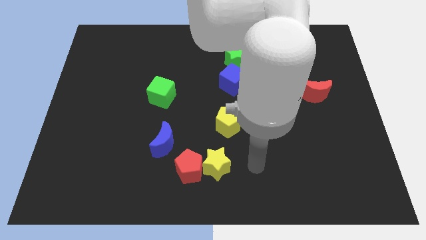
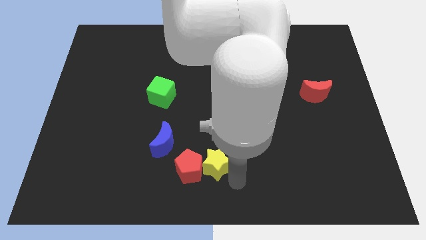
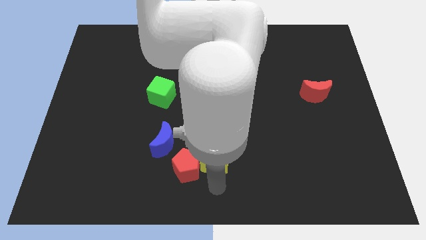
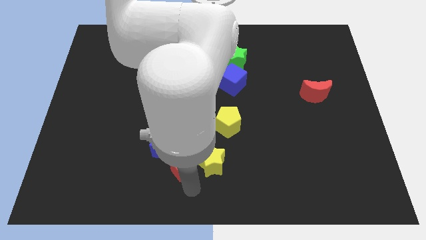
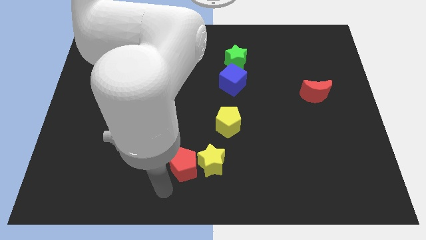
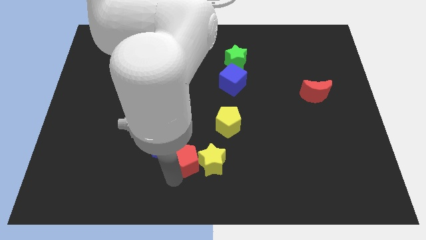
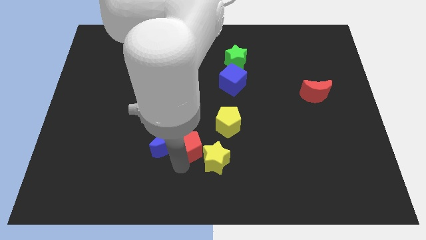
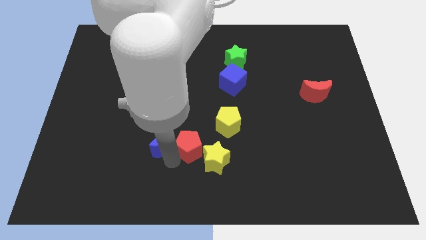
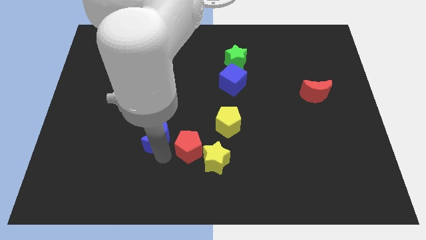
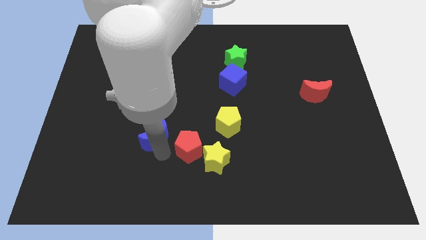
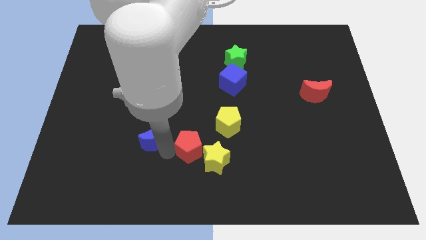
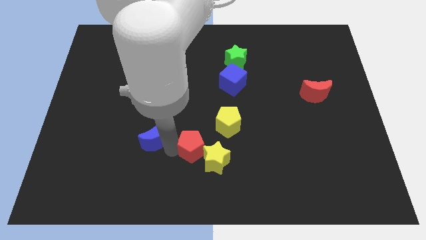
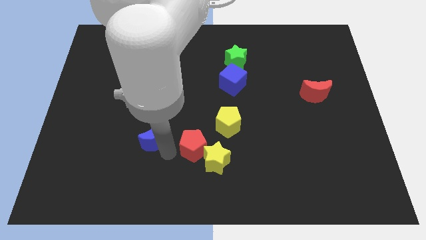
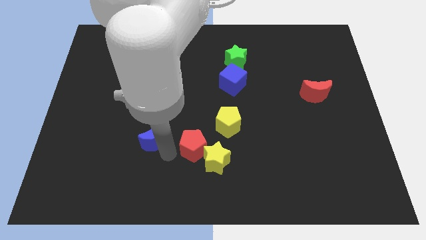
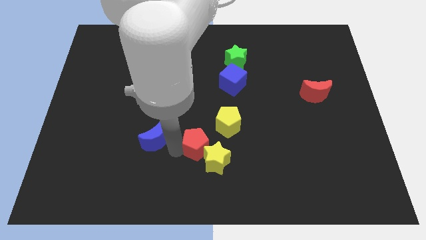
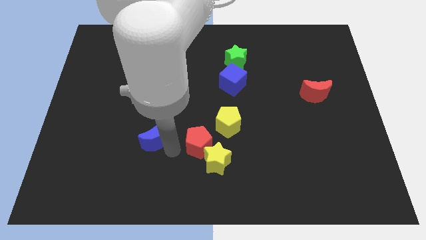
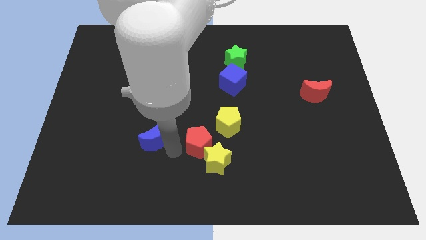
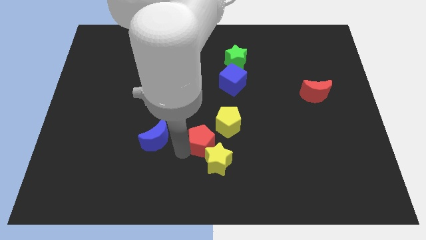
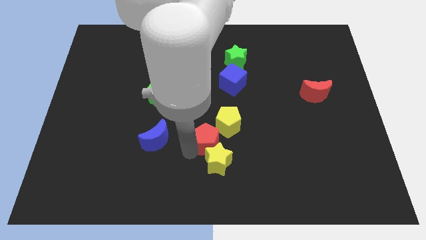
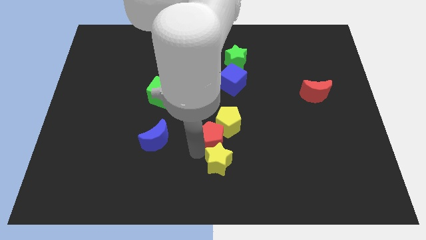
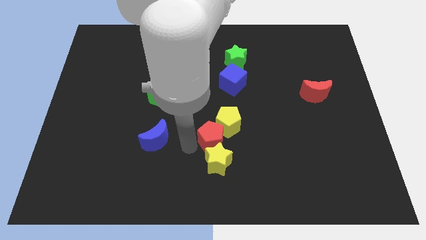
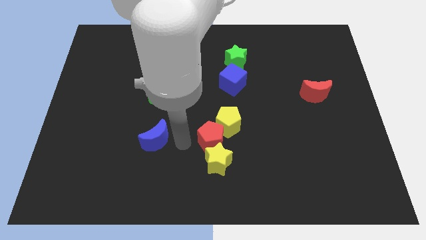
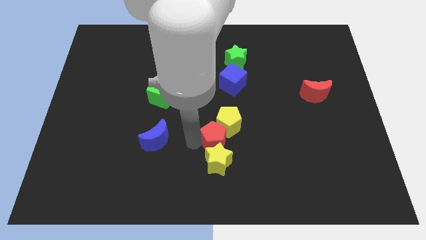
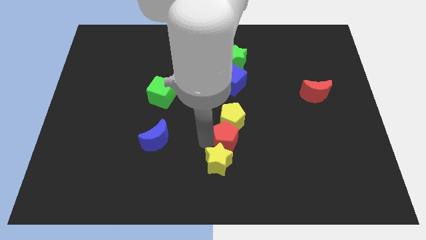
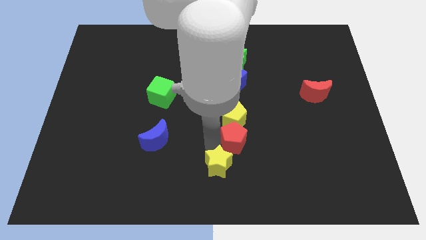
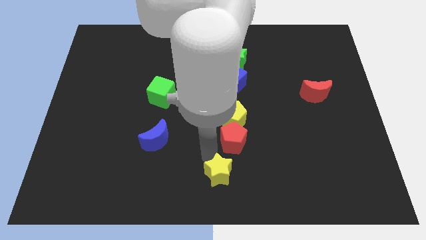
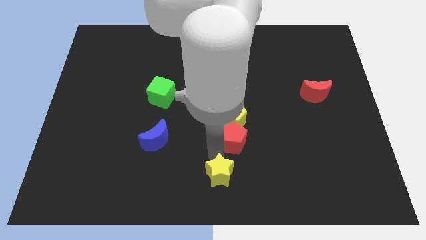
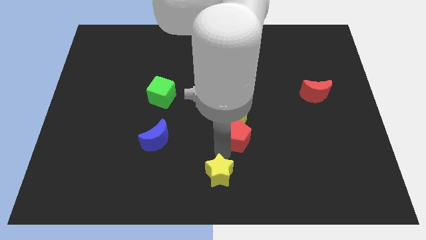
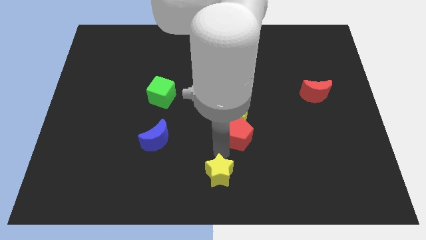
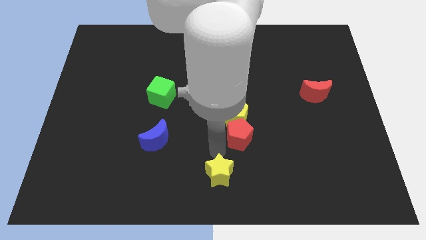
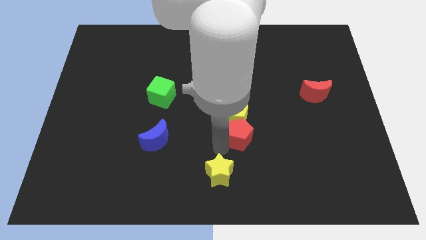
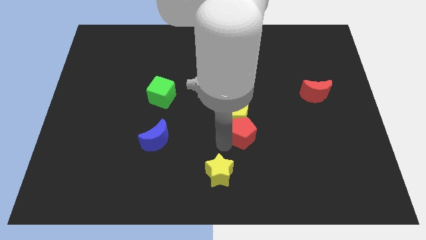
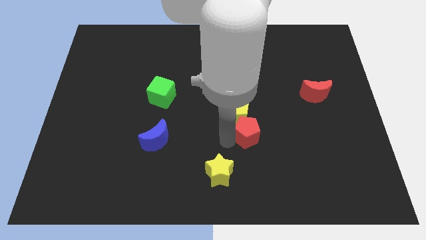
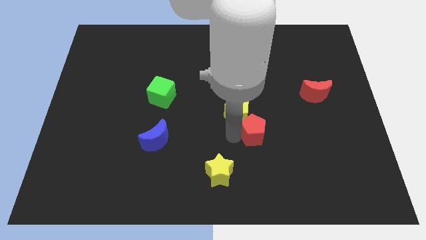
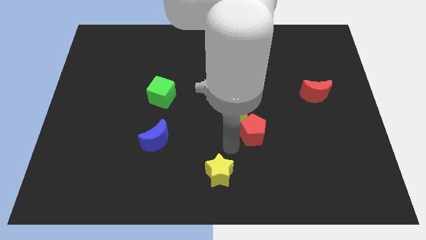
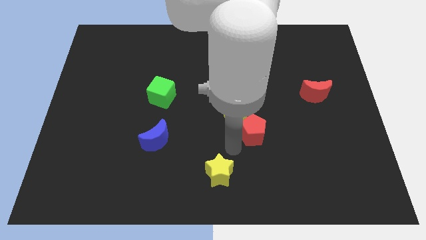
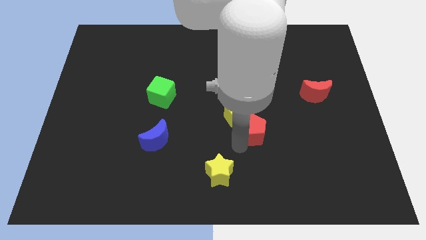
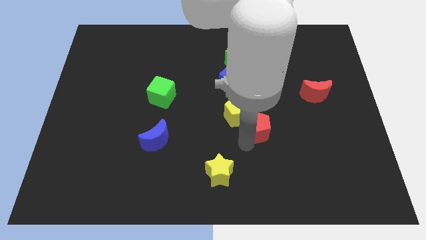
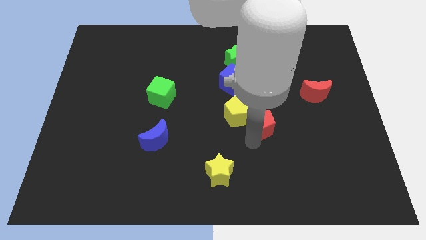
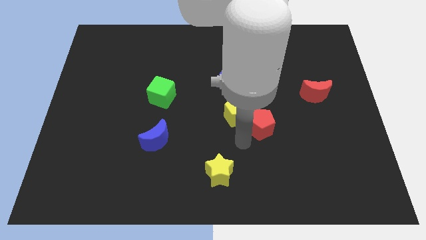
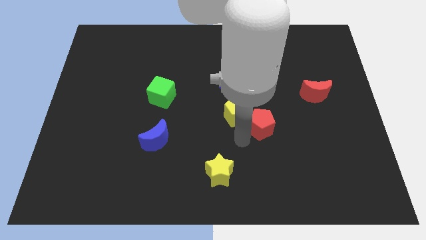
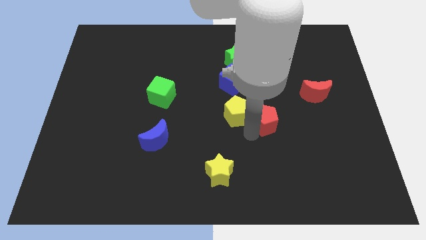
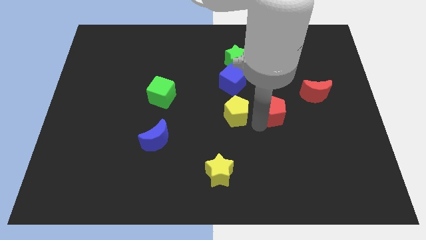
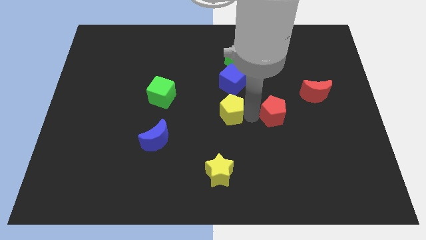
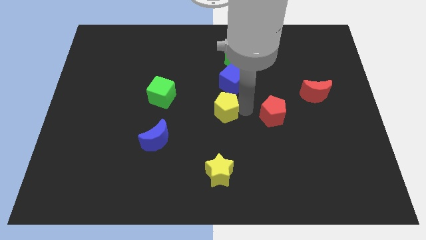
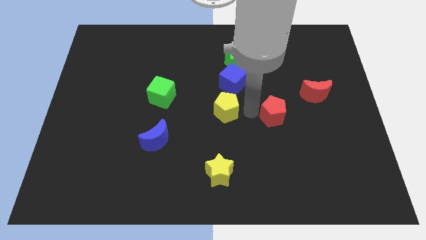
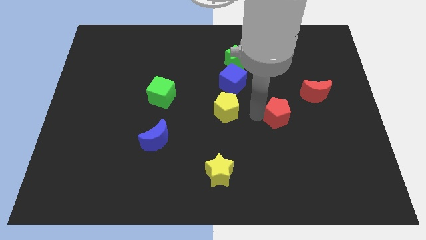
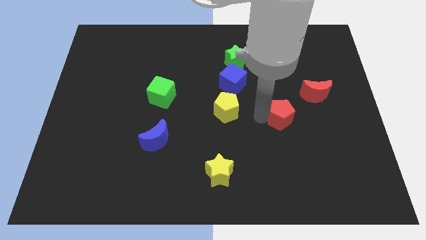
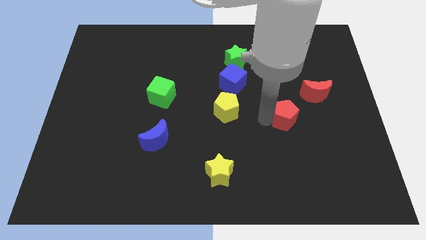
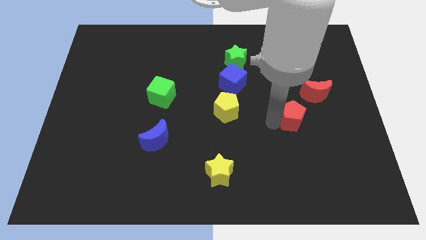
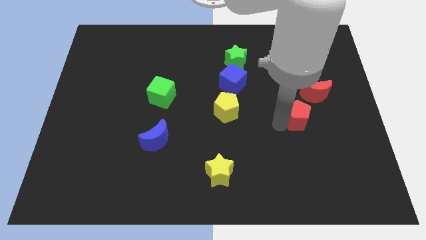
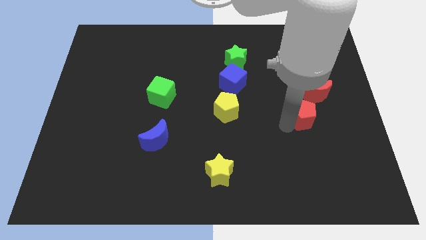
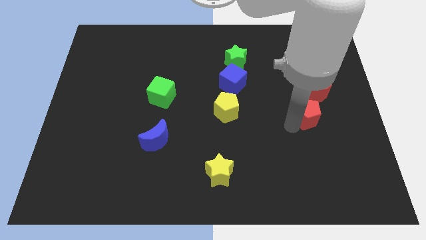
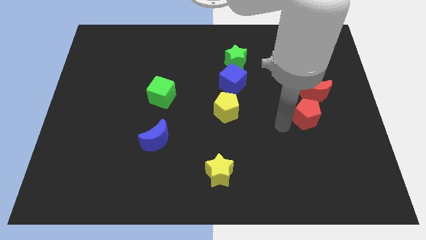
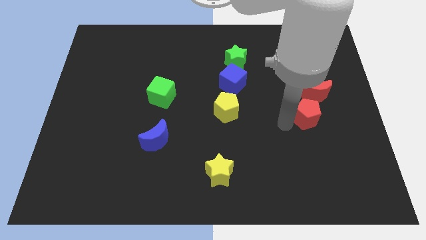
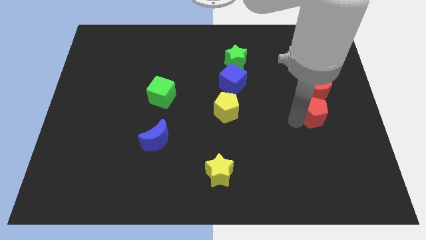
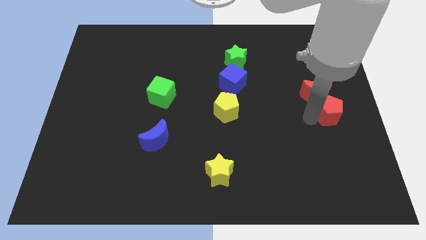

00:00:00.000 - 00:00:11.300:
slide the red pentagon to the center right

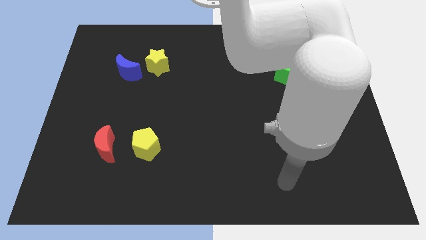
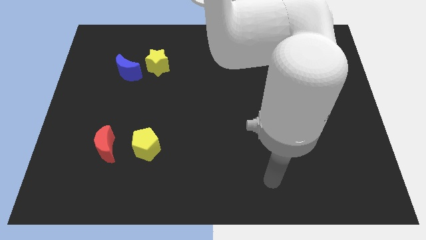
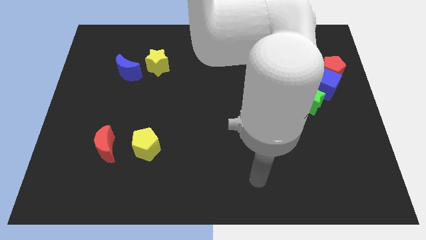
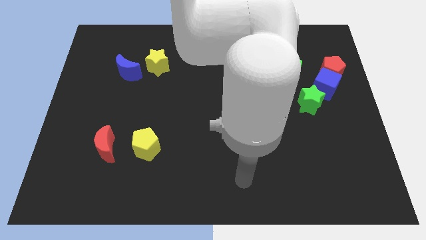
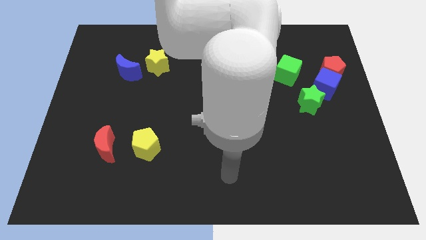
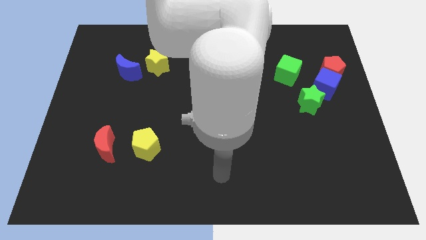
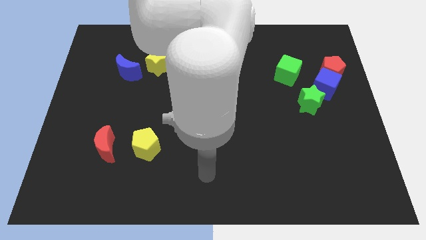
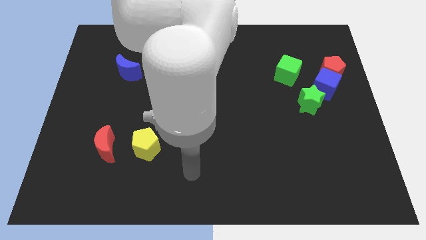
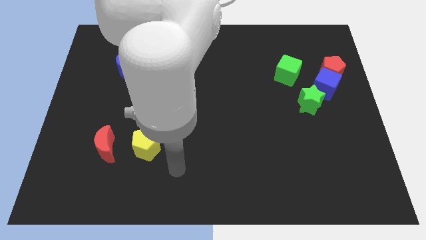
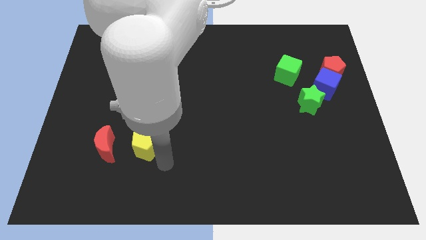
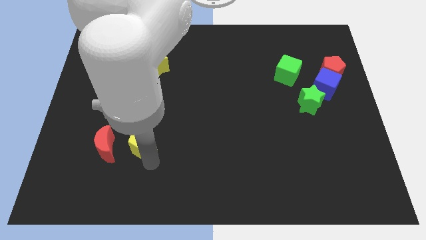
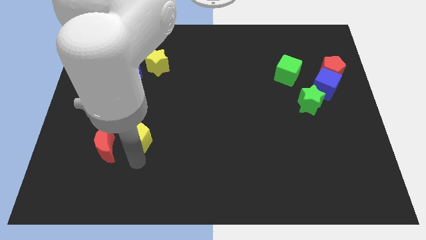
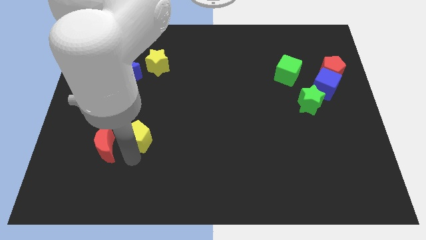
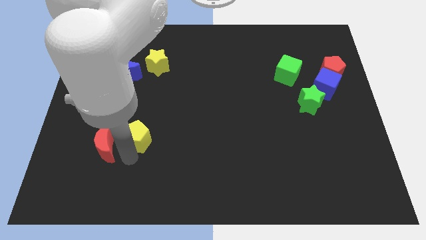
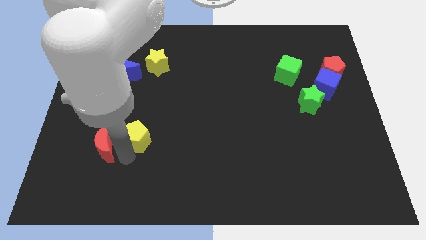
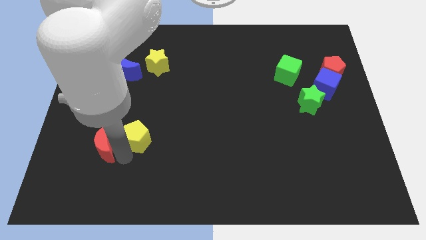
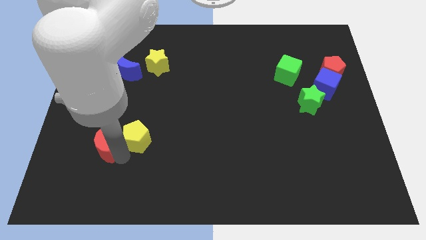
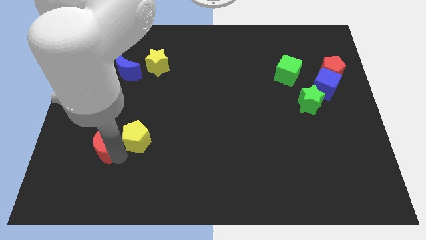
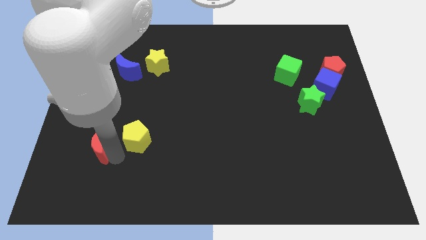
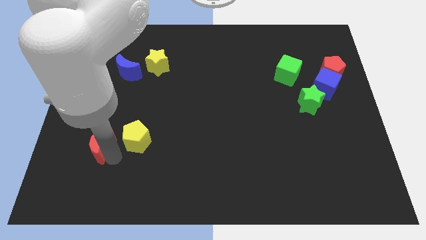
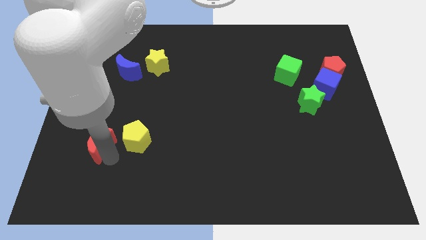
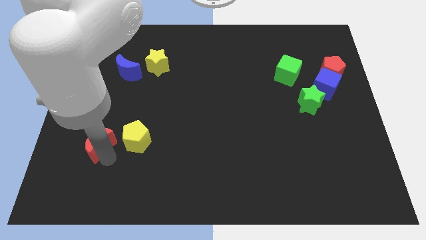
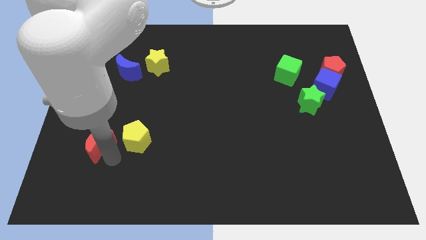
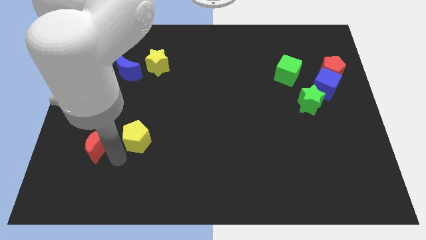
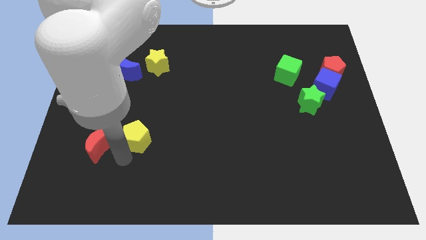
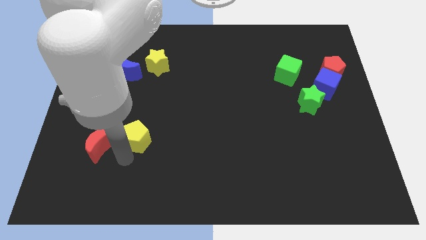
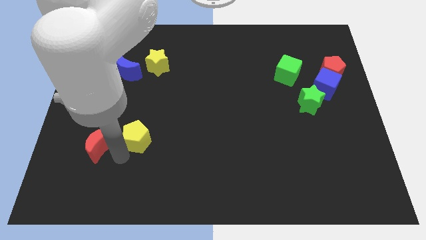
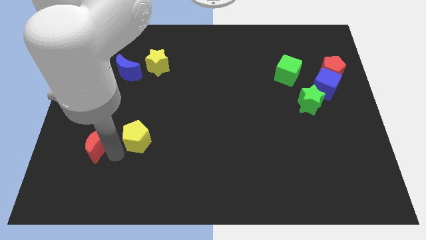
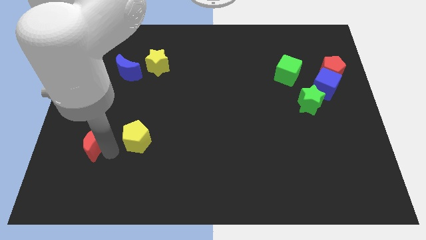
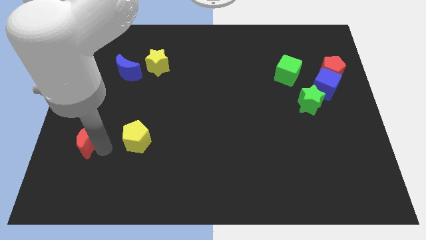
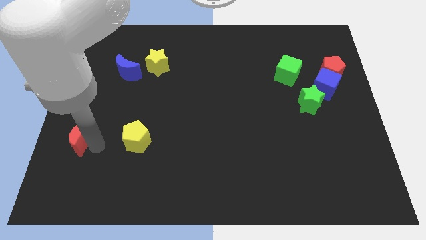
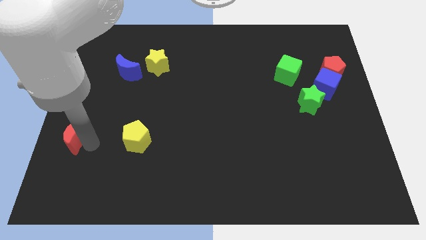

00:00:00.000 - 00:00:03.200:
put the red moon to the left side of the board
